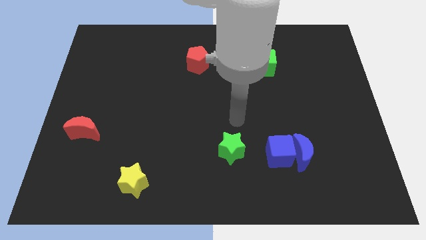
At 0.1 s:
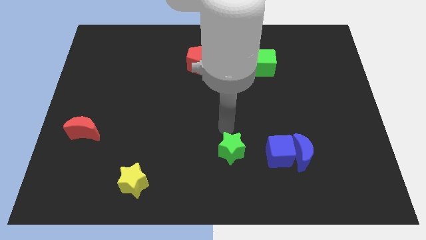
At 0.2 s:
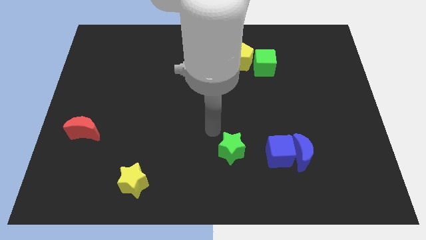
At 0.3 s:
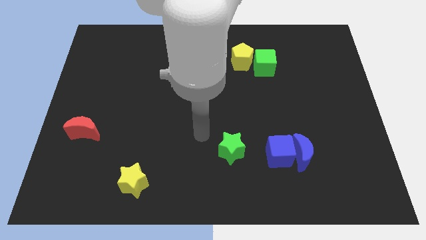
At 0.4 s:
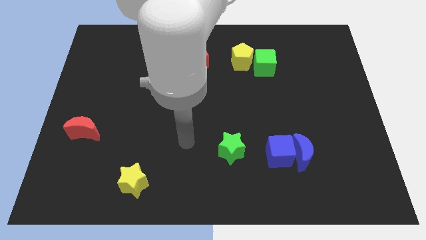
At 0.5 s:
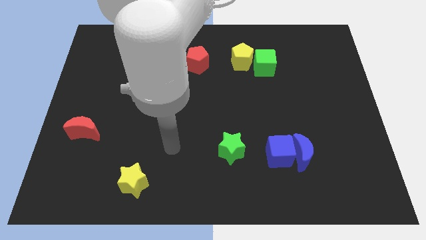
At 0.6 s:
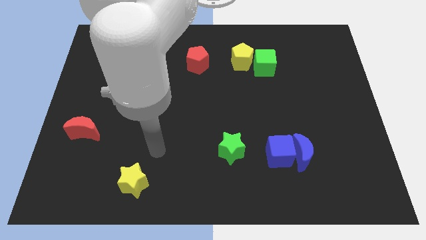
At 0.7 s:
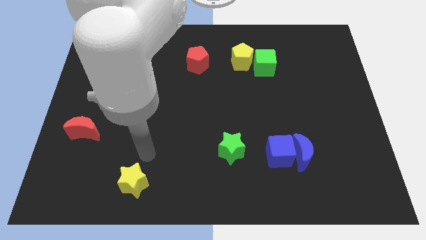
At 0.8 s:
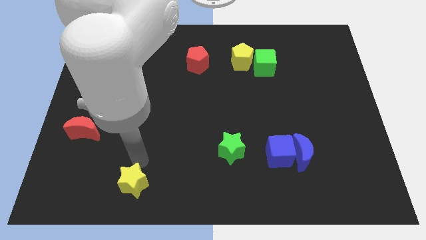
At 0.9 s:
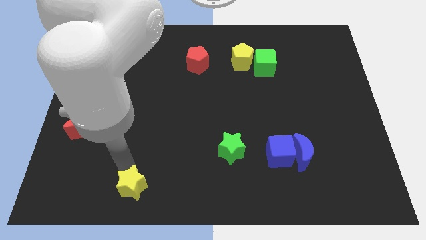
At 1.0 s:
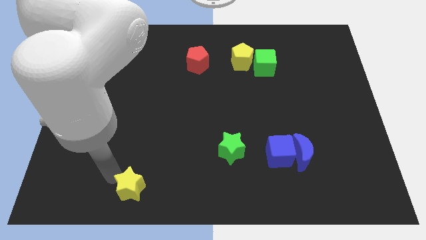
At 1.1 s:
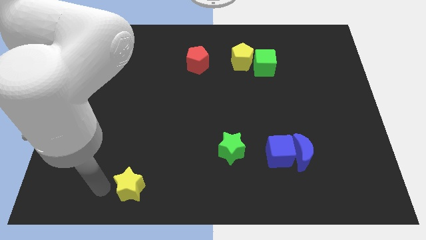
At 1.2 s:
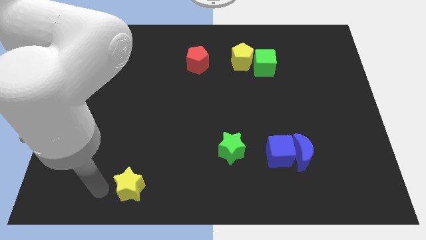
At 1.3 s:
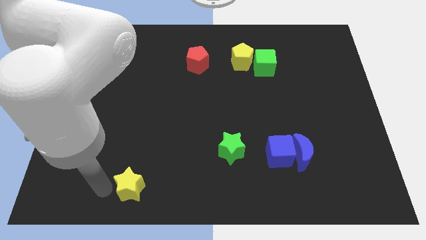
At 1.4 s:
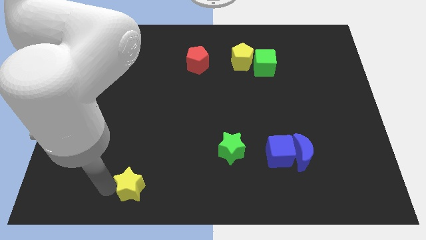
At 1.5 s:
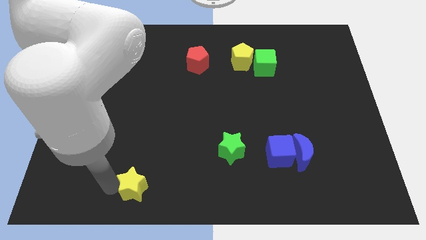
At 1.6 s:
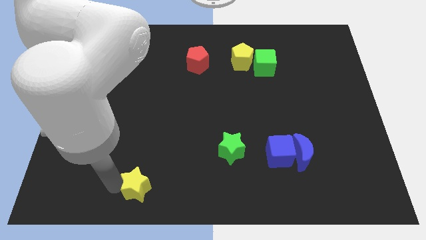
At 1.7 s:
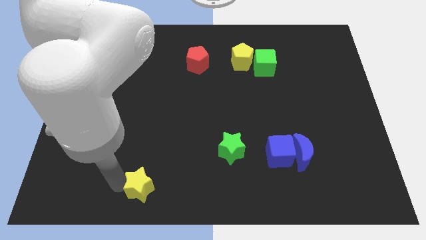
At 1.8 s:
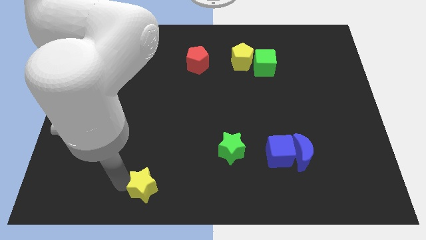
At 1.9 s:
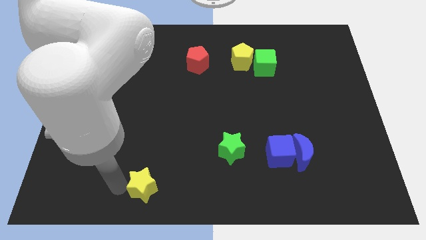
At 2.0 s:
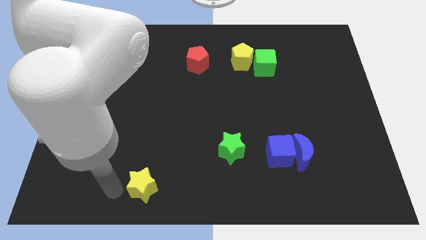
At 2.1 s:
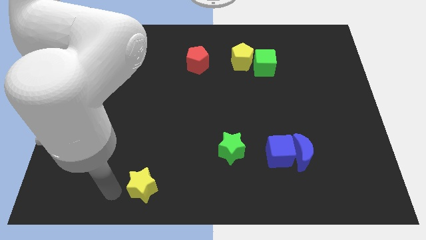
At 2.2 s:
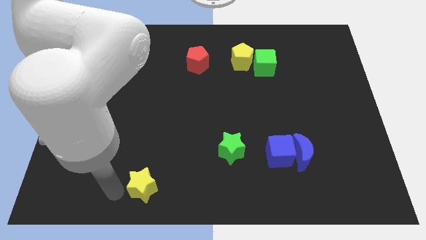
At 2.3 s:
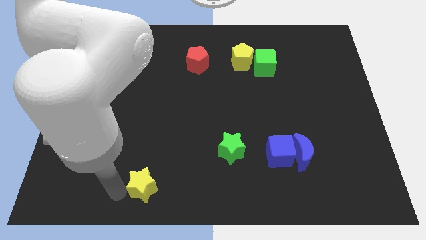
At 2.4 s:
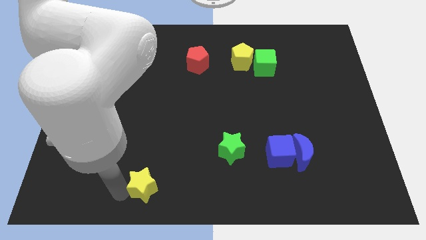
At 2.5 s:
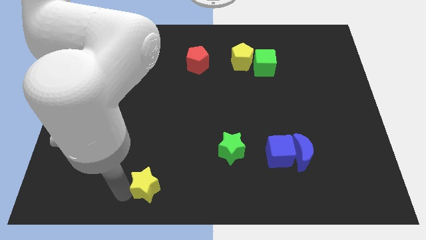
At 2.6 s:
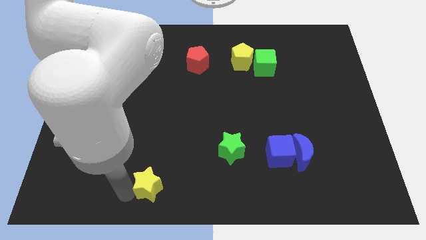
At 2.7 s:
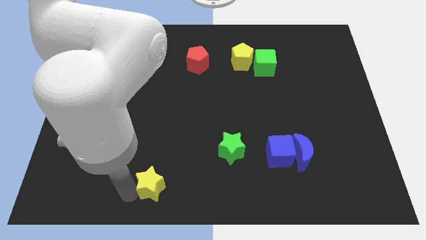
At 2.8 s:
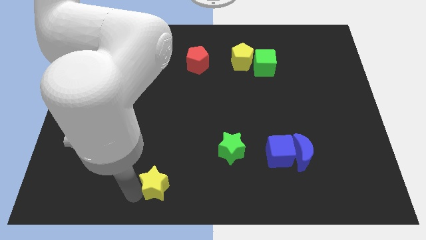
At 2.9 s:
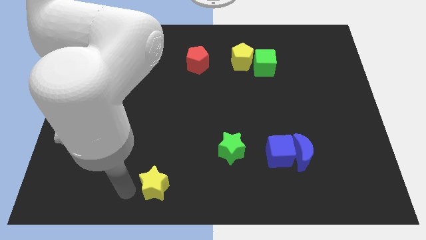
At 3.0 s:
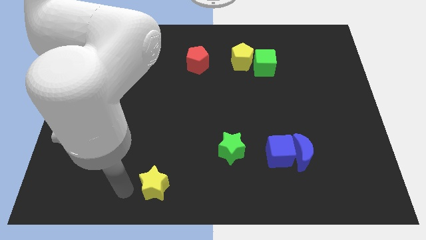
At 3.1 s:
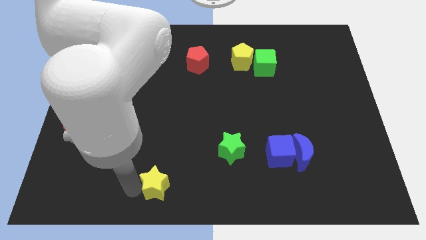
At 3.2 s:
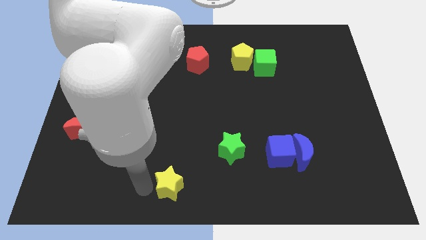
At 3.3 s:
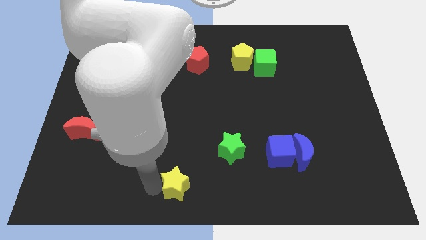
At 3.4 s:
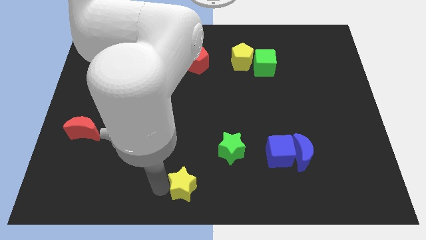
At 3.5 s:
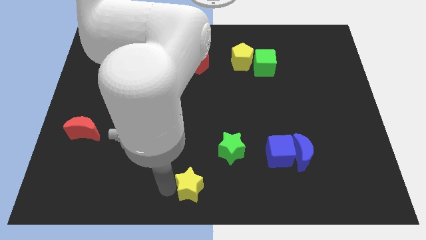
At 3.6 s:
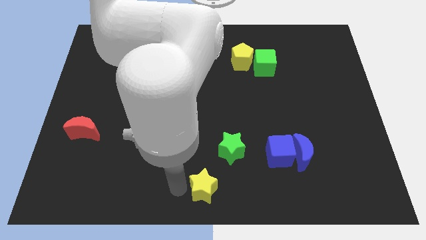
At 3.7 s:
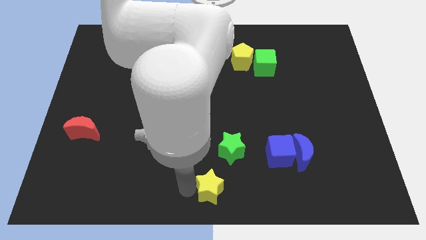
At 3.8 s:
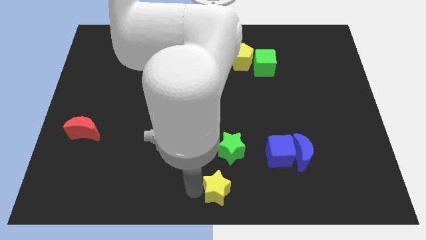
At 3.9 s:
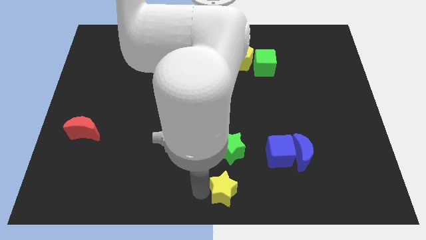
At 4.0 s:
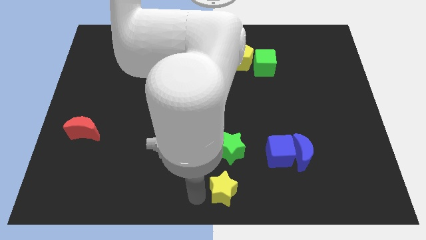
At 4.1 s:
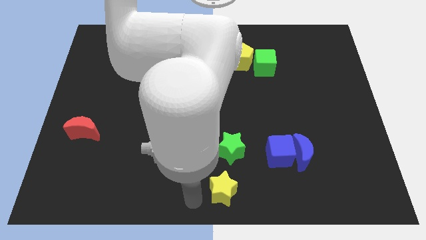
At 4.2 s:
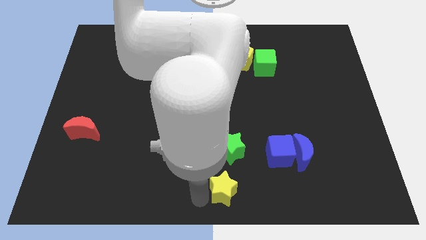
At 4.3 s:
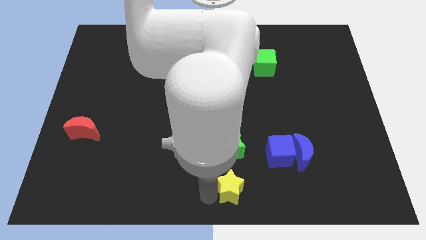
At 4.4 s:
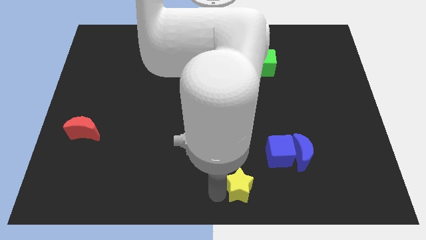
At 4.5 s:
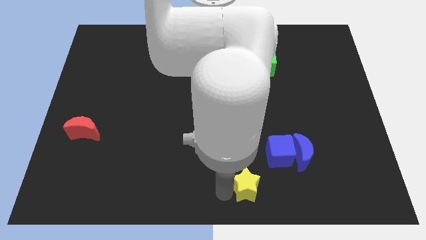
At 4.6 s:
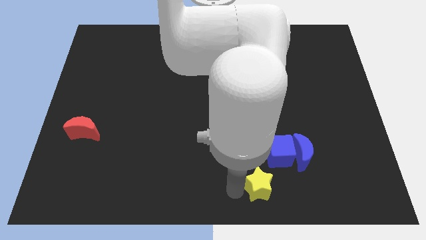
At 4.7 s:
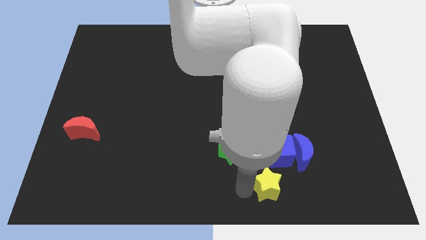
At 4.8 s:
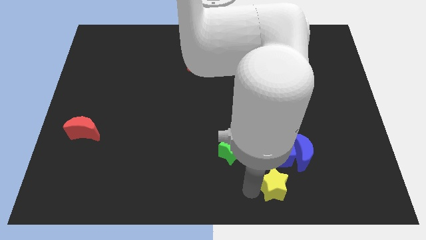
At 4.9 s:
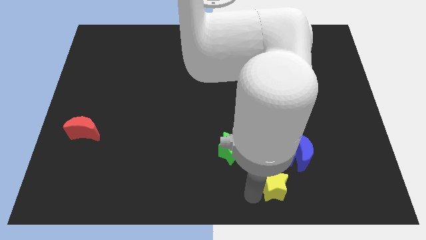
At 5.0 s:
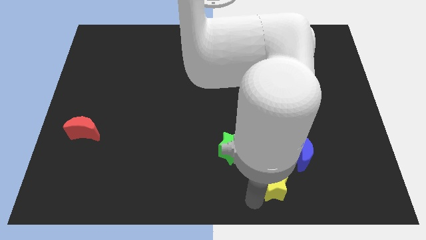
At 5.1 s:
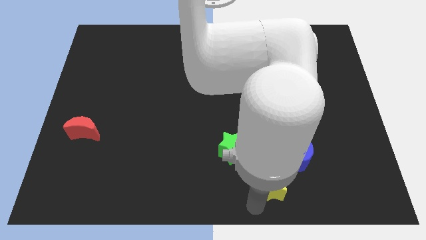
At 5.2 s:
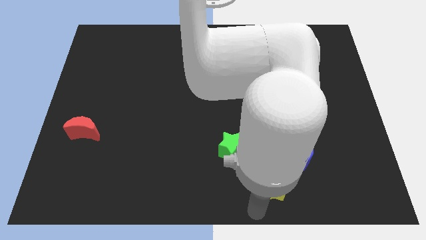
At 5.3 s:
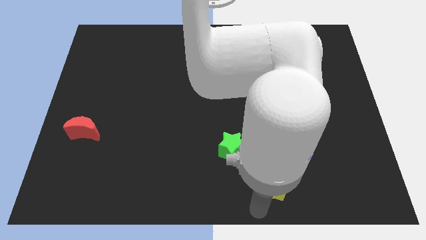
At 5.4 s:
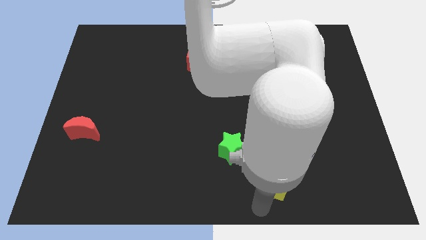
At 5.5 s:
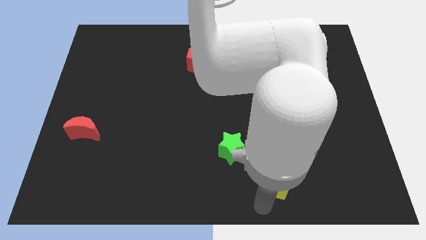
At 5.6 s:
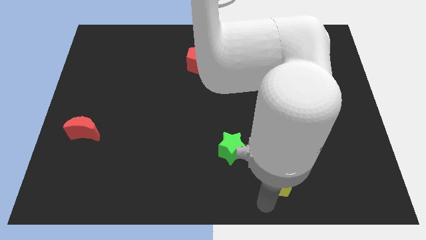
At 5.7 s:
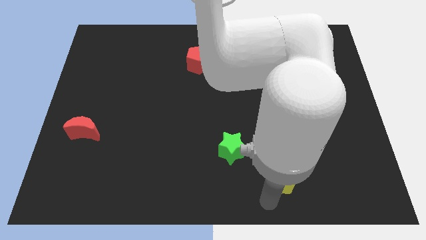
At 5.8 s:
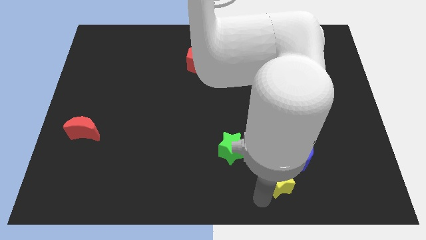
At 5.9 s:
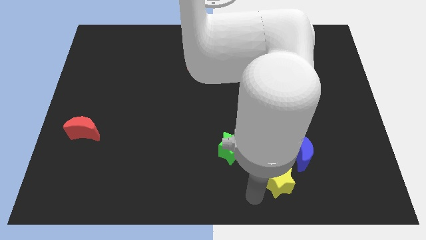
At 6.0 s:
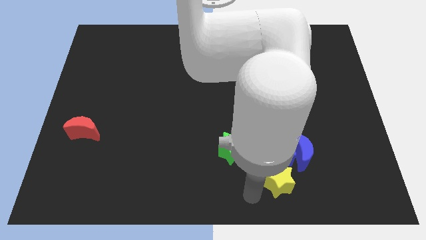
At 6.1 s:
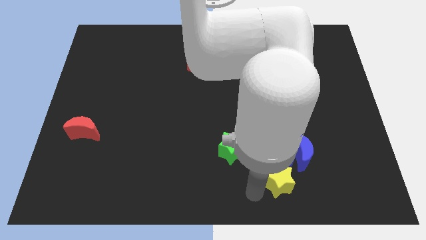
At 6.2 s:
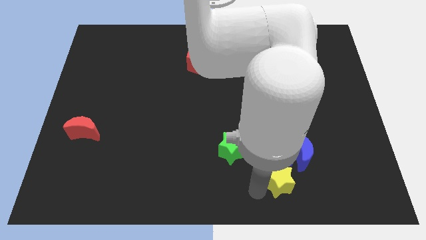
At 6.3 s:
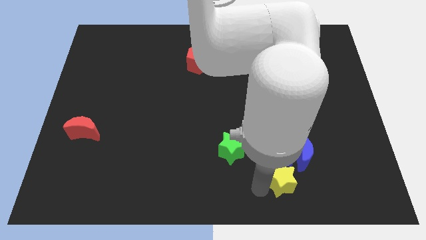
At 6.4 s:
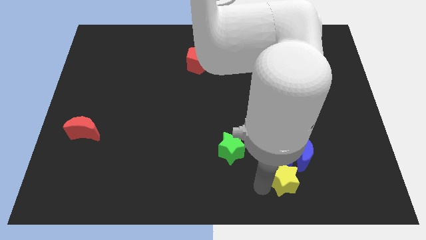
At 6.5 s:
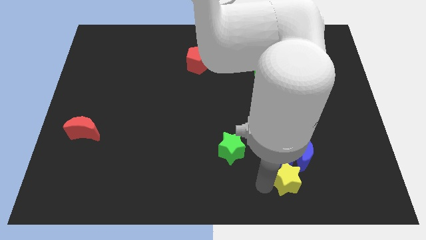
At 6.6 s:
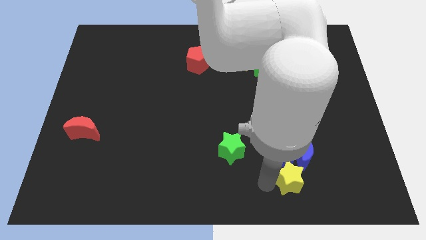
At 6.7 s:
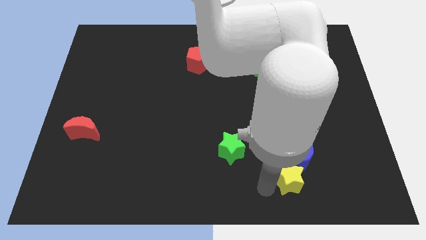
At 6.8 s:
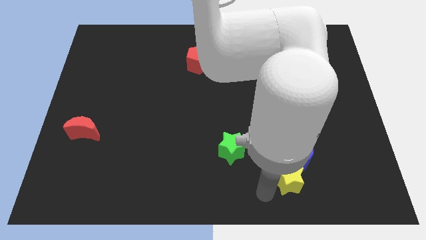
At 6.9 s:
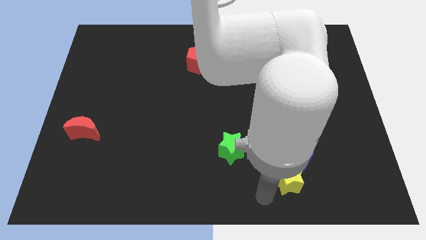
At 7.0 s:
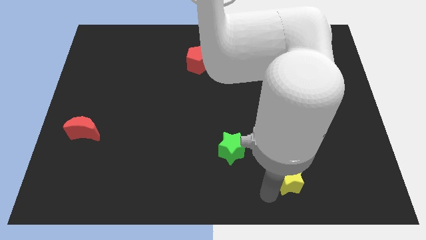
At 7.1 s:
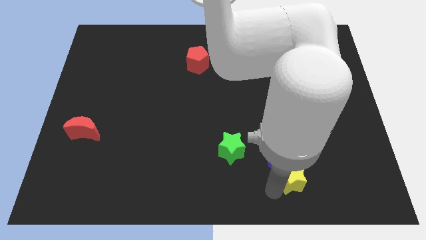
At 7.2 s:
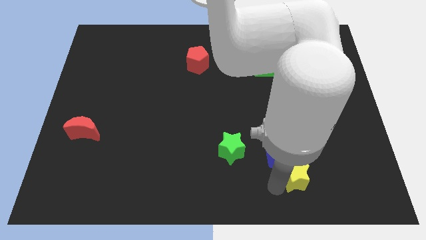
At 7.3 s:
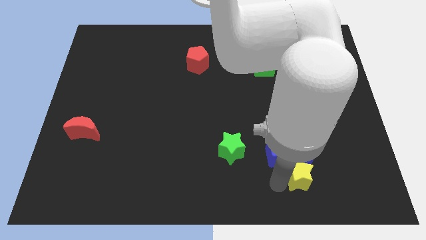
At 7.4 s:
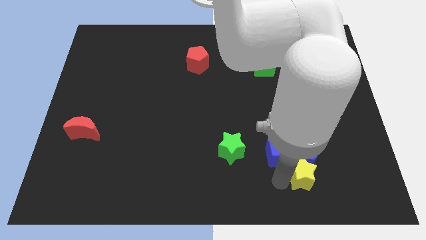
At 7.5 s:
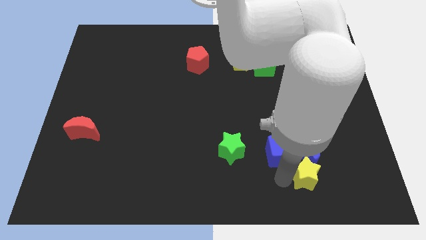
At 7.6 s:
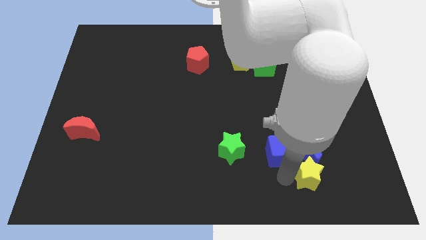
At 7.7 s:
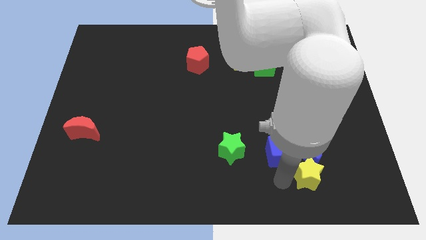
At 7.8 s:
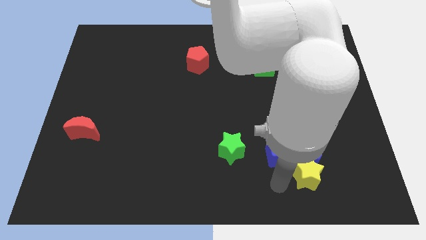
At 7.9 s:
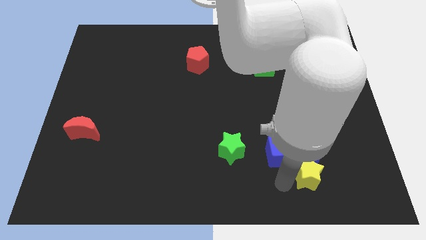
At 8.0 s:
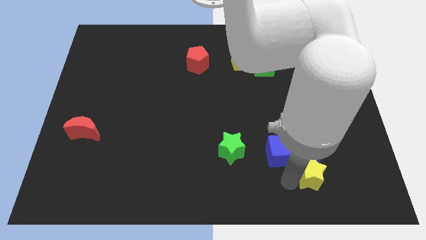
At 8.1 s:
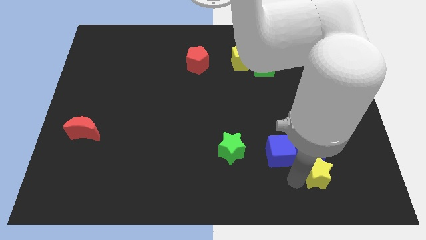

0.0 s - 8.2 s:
put the yellow star to the right of the blue cube
